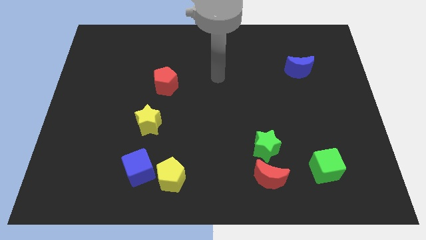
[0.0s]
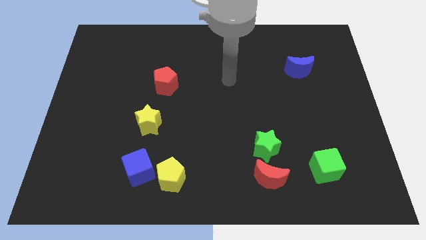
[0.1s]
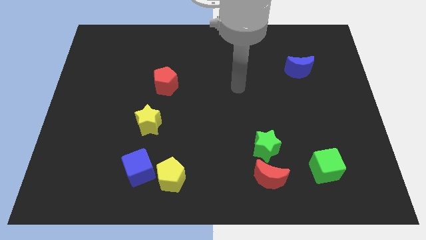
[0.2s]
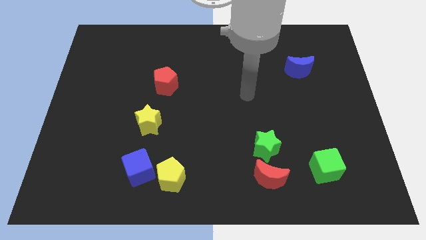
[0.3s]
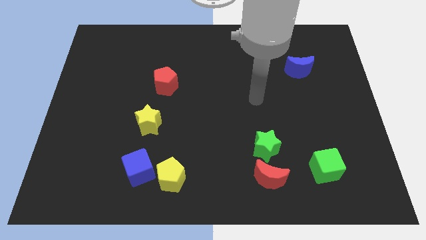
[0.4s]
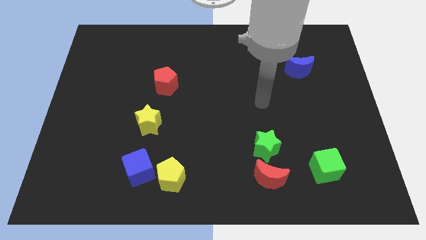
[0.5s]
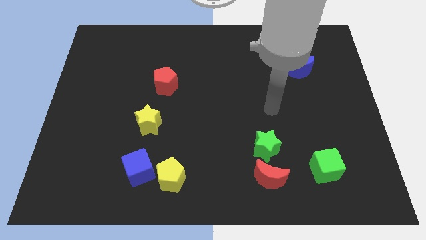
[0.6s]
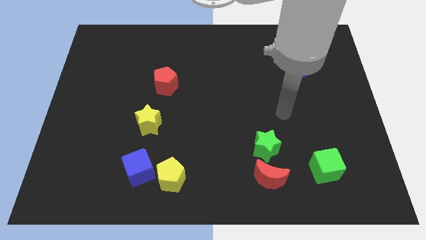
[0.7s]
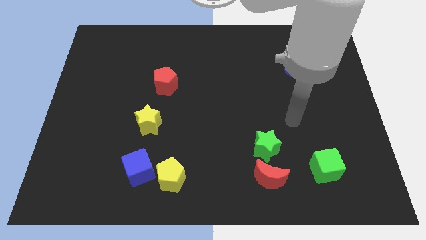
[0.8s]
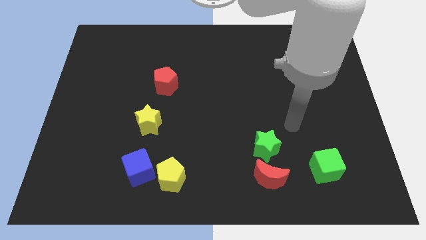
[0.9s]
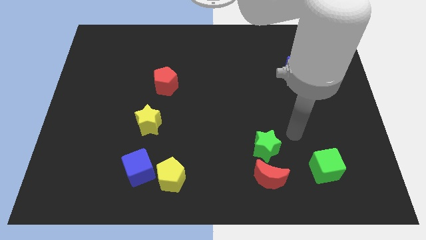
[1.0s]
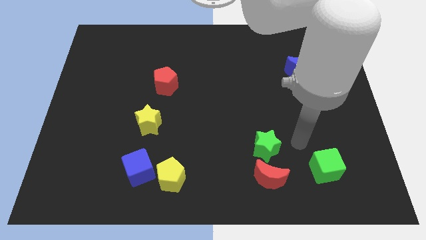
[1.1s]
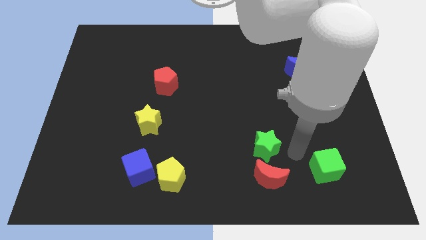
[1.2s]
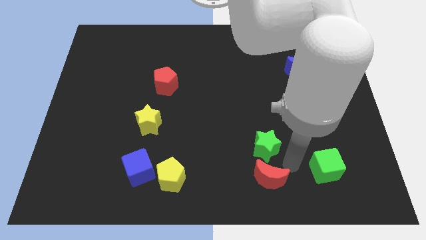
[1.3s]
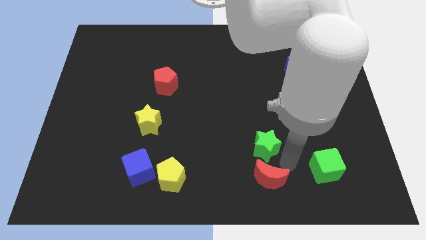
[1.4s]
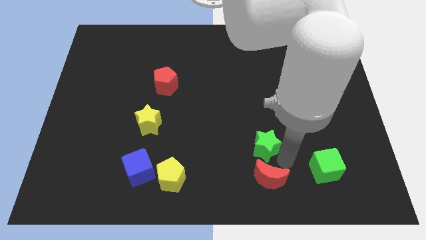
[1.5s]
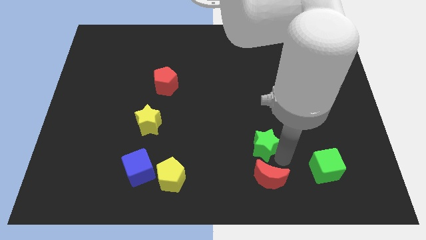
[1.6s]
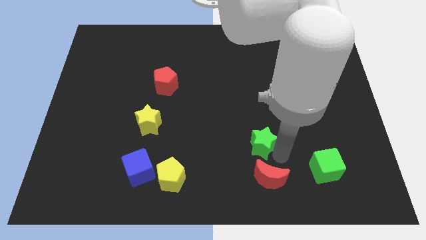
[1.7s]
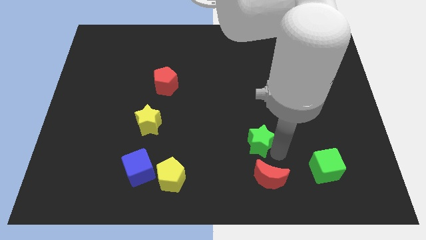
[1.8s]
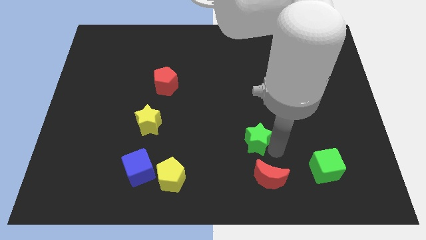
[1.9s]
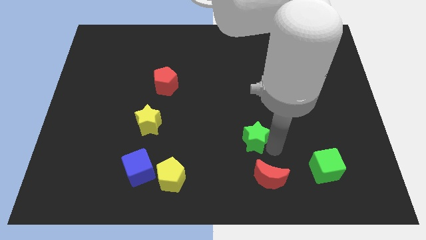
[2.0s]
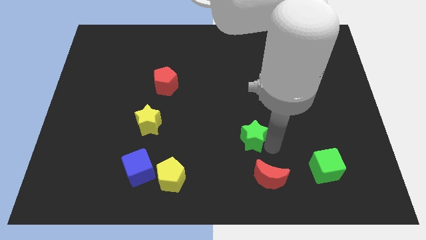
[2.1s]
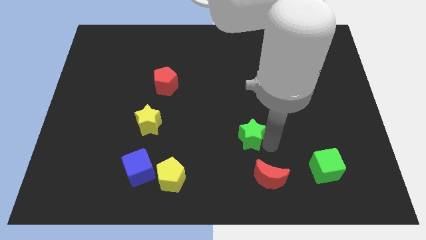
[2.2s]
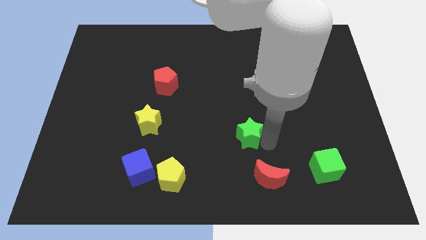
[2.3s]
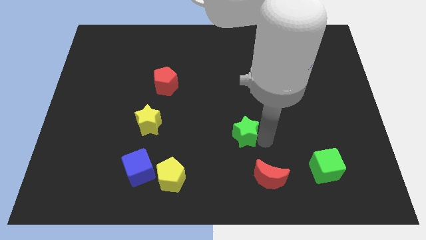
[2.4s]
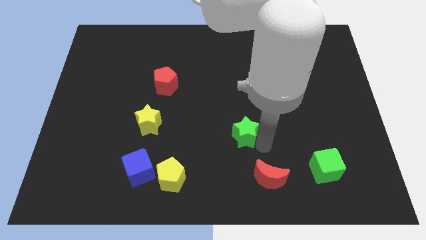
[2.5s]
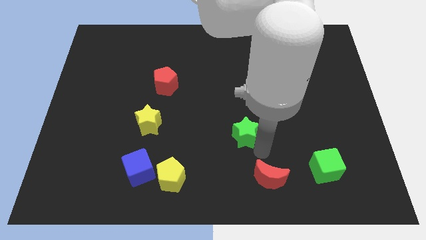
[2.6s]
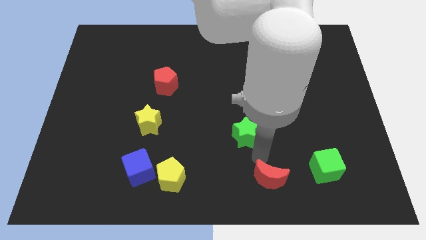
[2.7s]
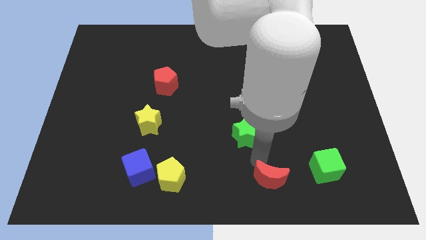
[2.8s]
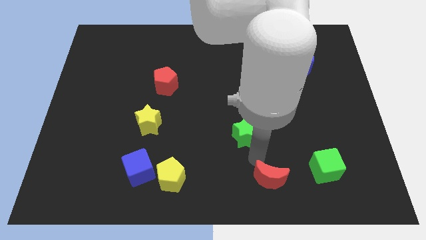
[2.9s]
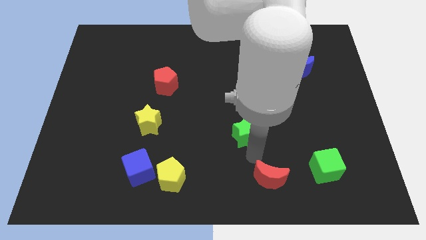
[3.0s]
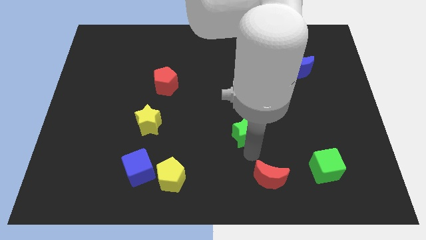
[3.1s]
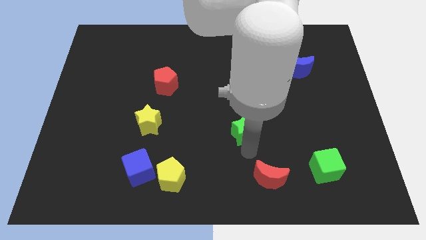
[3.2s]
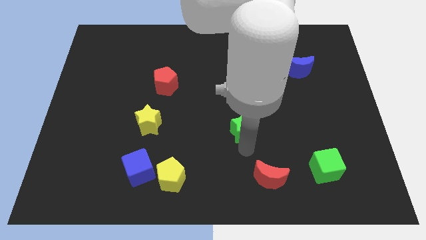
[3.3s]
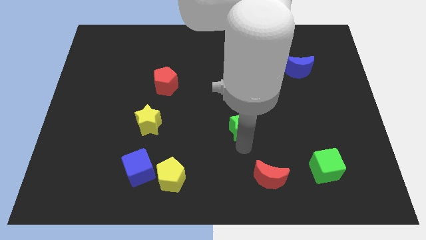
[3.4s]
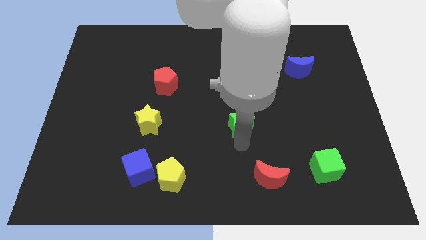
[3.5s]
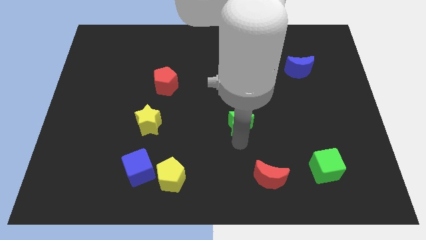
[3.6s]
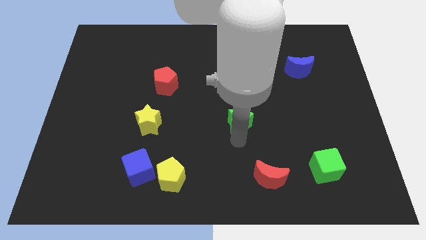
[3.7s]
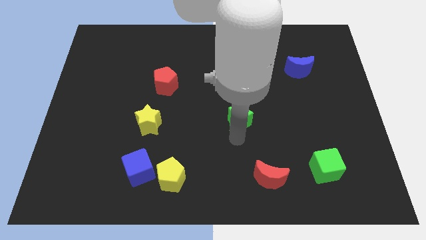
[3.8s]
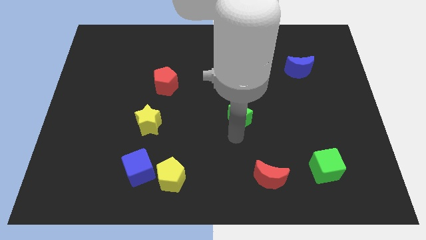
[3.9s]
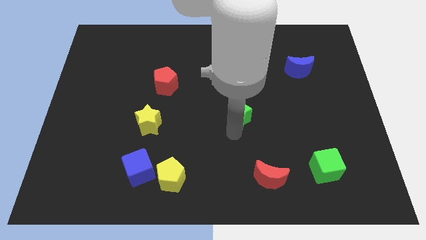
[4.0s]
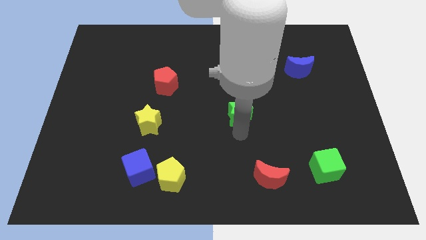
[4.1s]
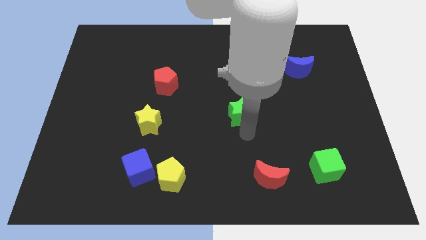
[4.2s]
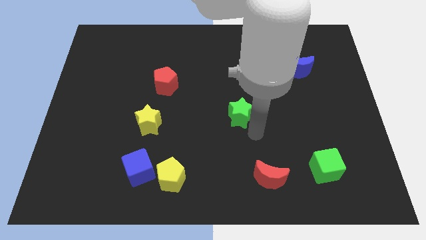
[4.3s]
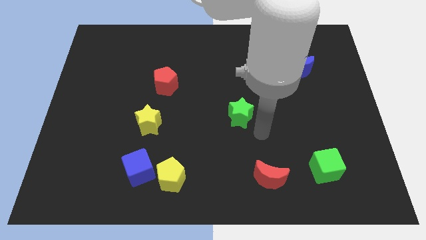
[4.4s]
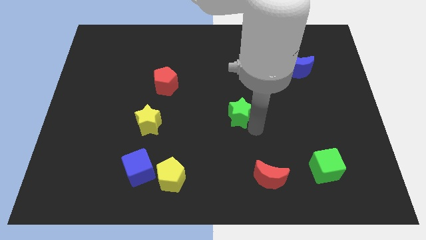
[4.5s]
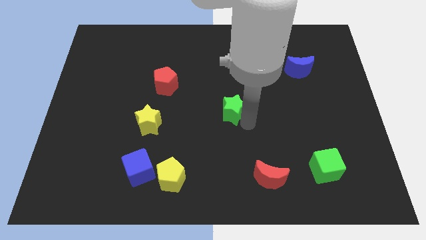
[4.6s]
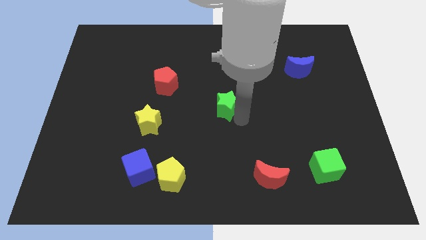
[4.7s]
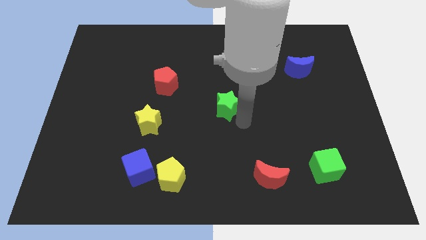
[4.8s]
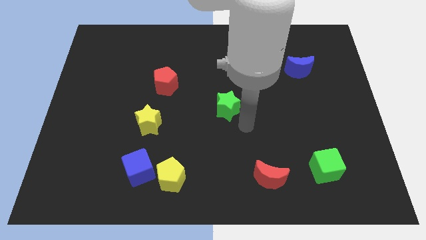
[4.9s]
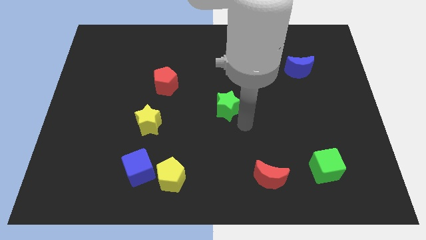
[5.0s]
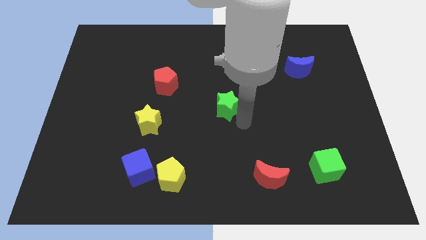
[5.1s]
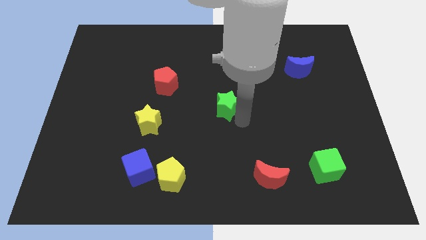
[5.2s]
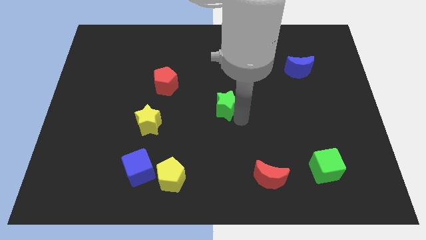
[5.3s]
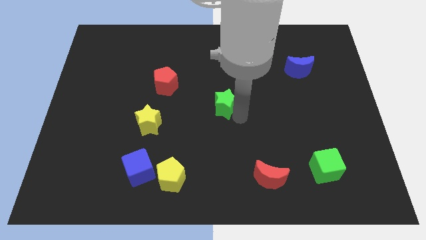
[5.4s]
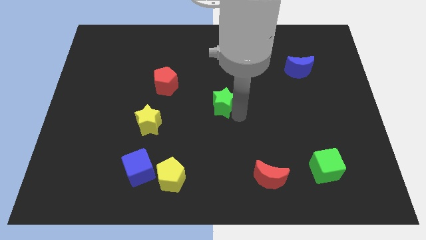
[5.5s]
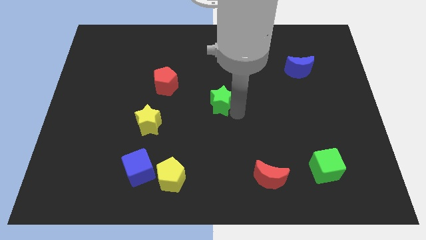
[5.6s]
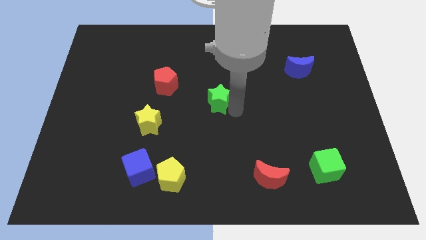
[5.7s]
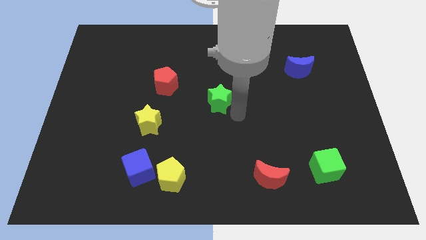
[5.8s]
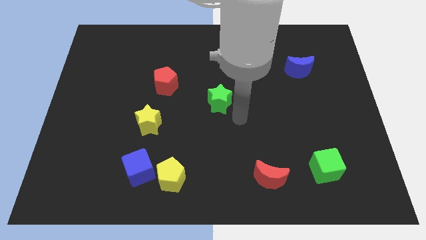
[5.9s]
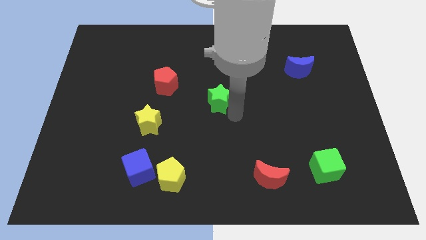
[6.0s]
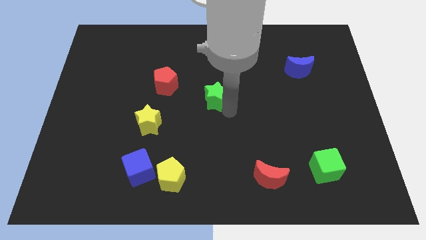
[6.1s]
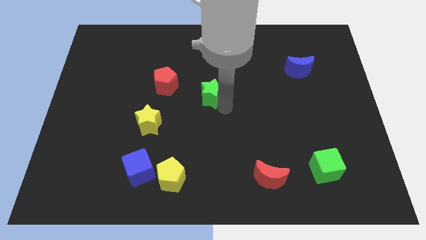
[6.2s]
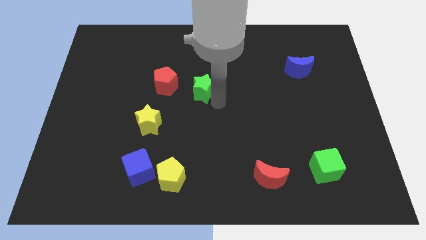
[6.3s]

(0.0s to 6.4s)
slide the green star upwards and left diagonally

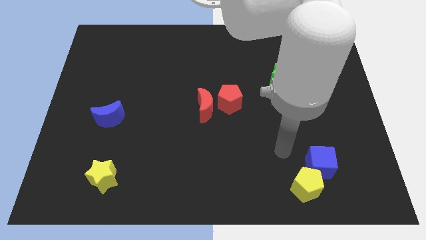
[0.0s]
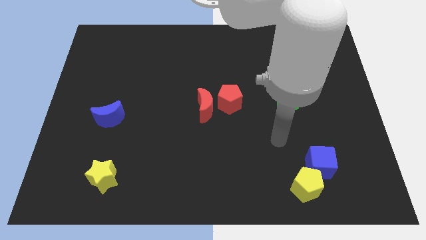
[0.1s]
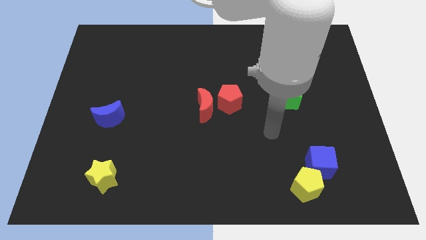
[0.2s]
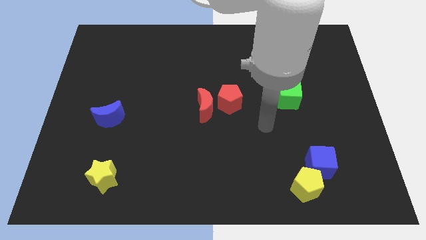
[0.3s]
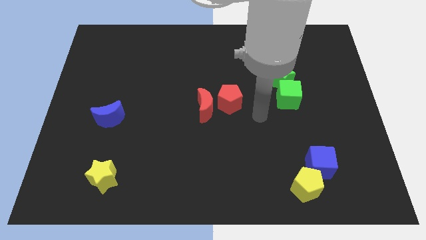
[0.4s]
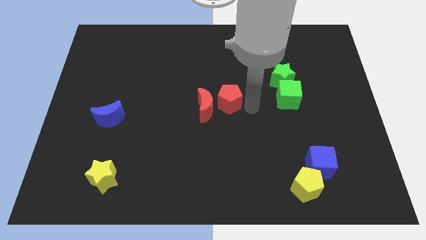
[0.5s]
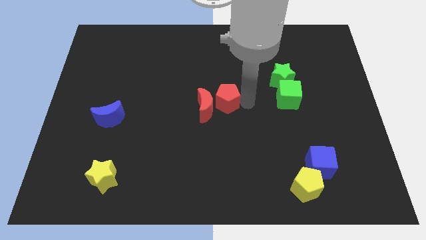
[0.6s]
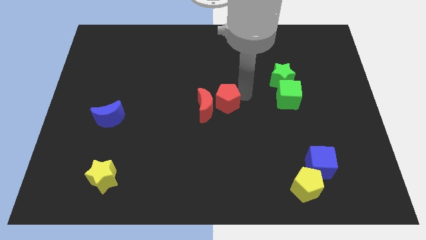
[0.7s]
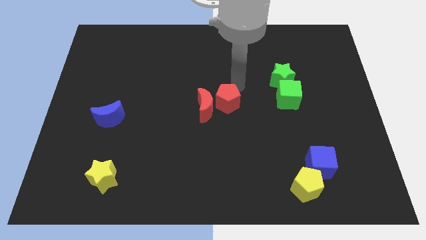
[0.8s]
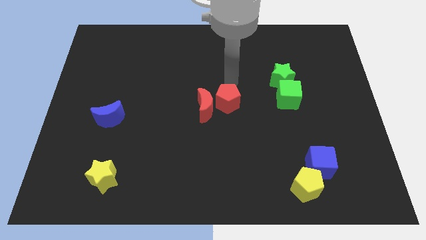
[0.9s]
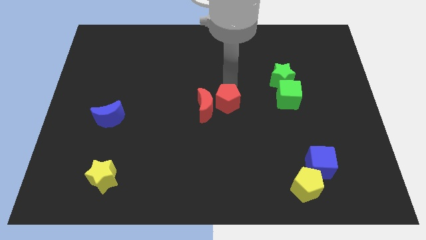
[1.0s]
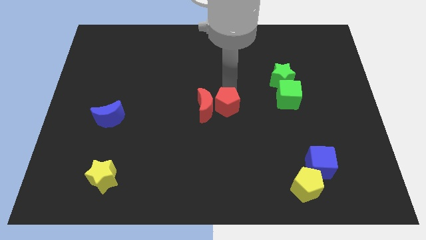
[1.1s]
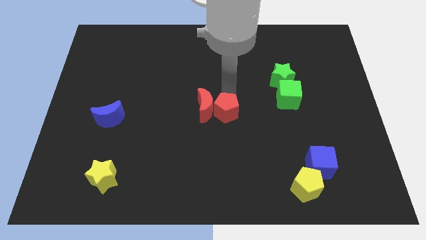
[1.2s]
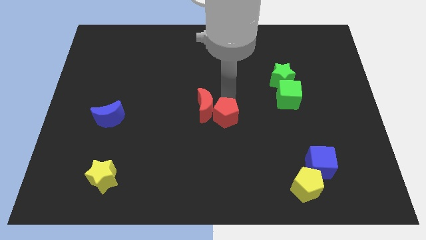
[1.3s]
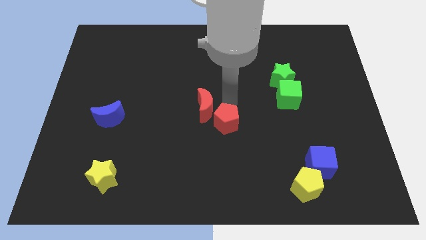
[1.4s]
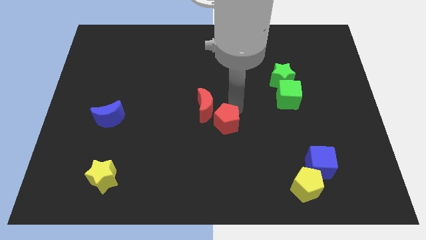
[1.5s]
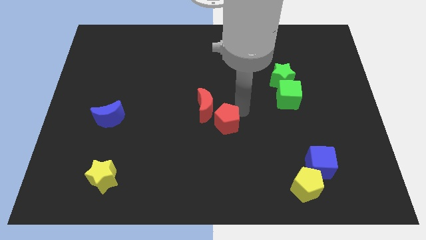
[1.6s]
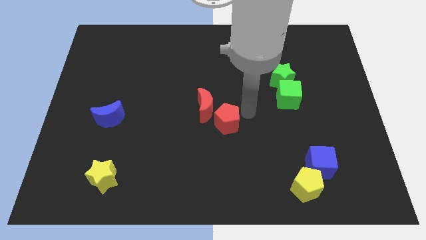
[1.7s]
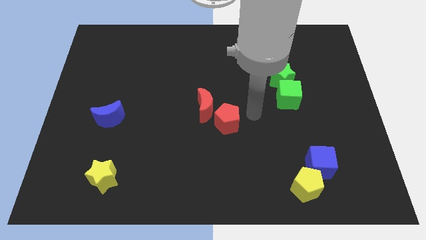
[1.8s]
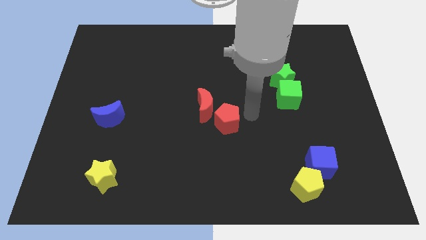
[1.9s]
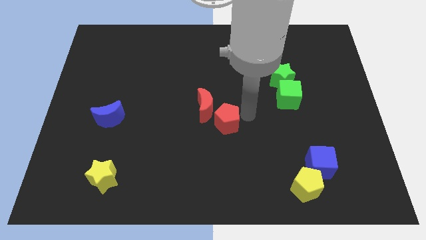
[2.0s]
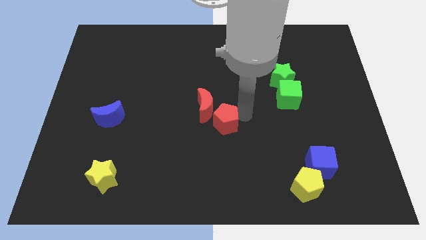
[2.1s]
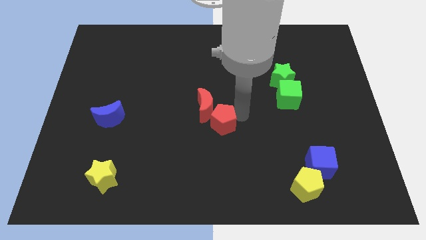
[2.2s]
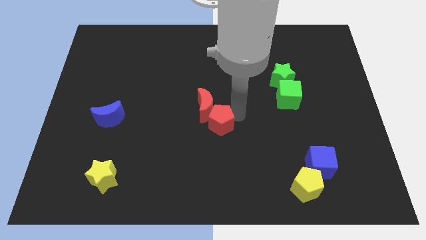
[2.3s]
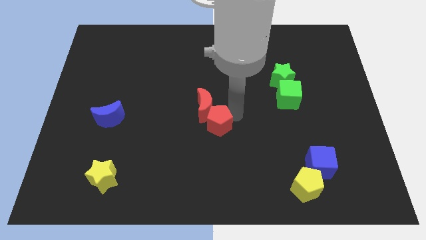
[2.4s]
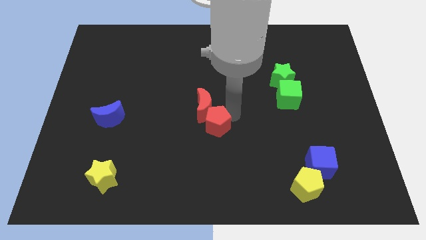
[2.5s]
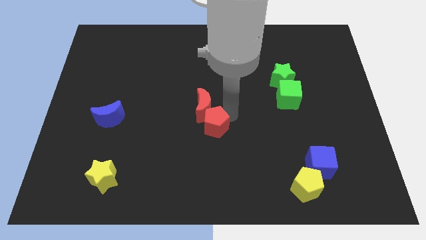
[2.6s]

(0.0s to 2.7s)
slide the red pentagon down and left a bit
